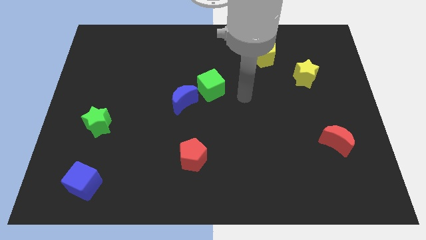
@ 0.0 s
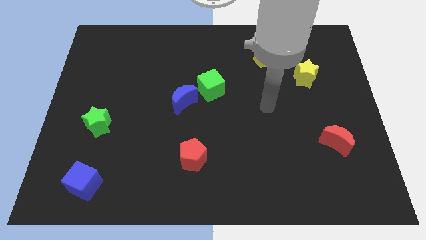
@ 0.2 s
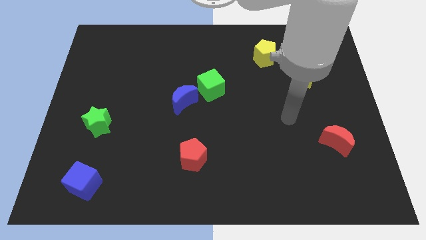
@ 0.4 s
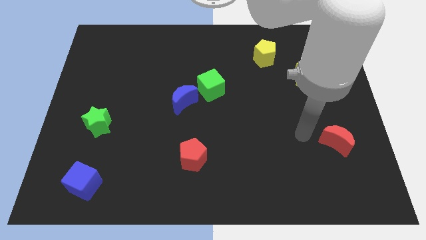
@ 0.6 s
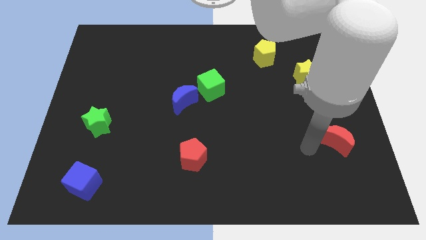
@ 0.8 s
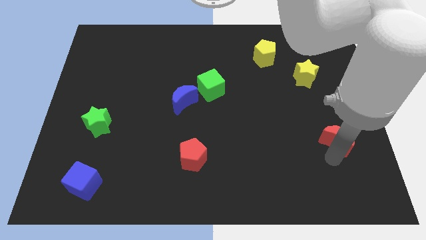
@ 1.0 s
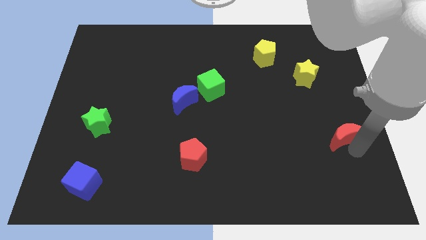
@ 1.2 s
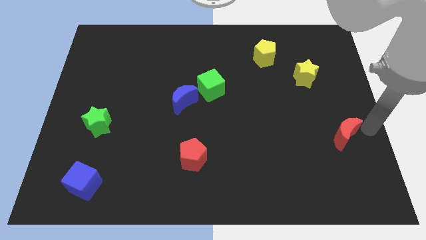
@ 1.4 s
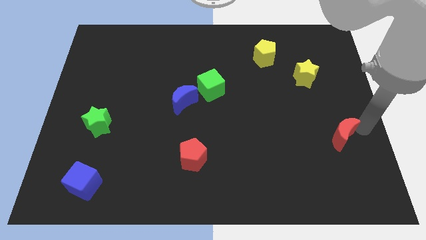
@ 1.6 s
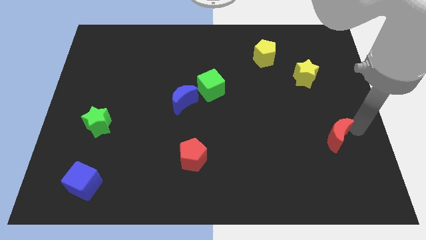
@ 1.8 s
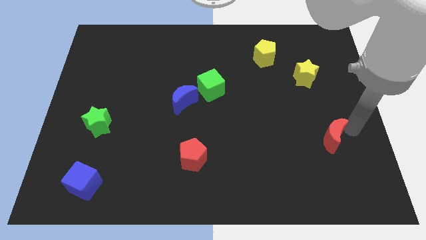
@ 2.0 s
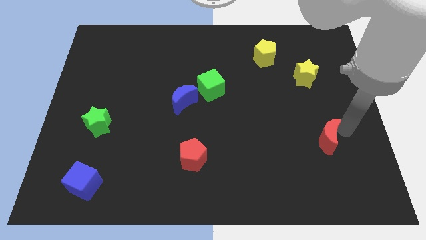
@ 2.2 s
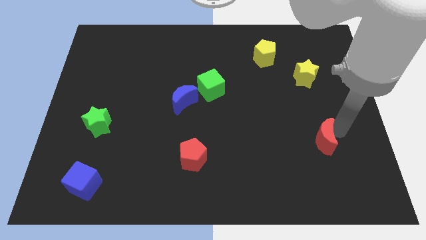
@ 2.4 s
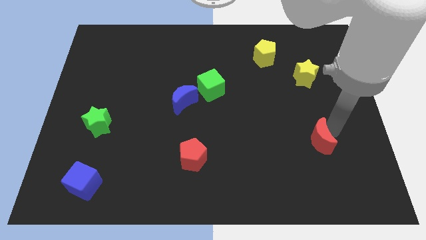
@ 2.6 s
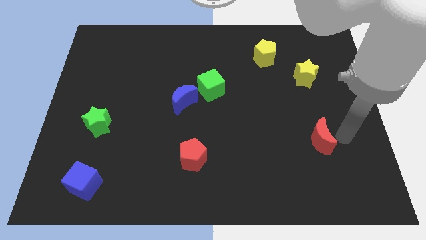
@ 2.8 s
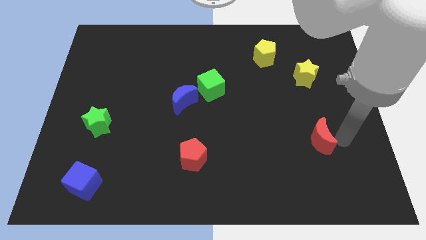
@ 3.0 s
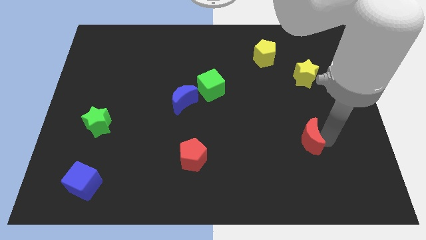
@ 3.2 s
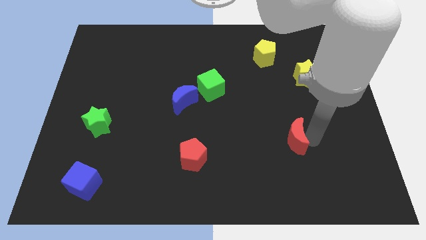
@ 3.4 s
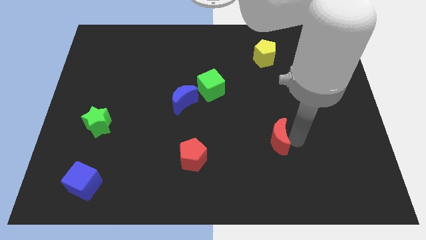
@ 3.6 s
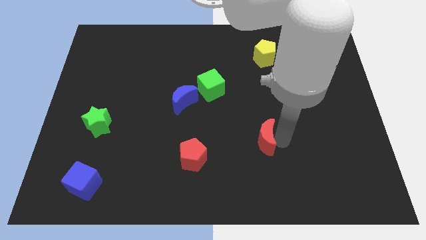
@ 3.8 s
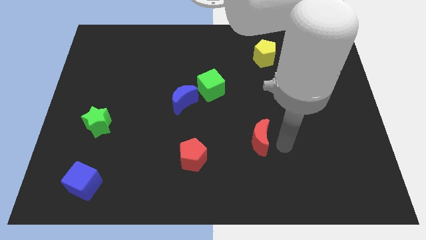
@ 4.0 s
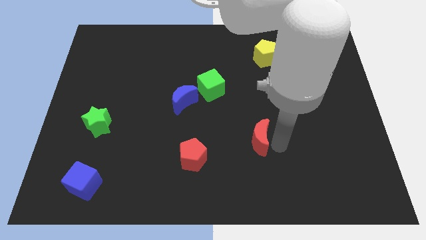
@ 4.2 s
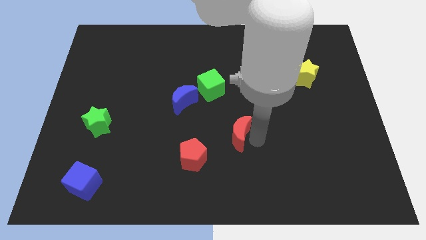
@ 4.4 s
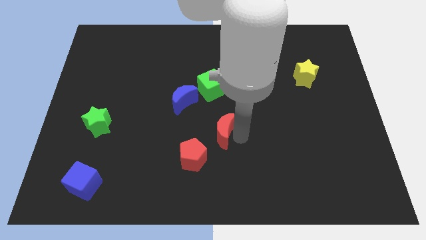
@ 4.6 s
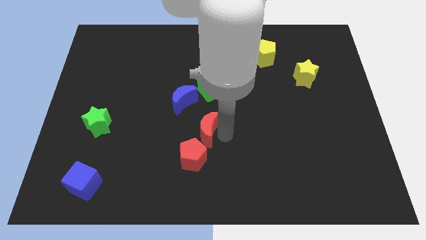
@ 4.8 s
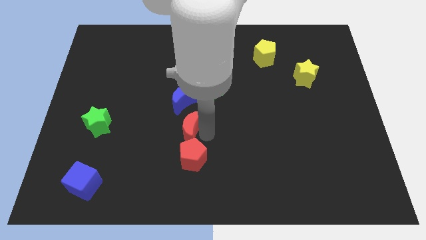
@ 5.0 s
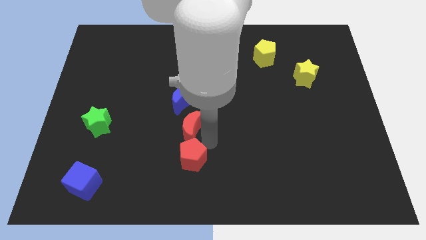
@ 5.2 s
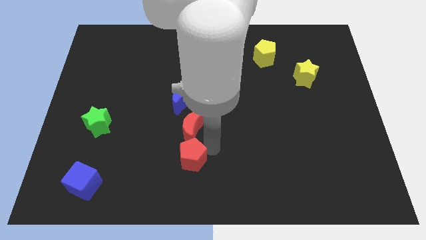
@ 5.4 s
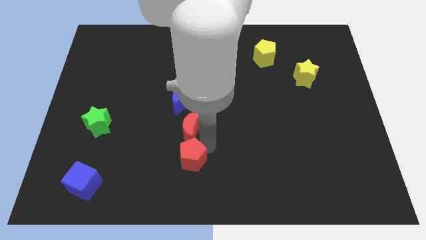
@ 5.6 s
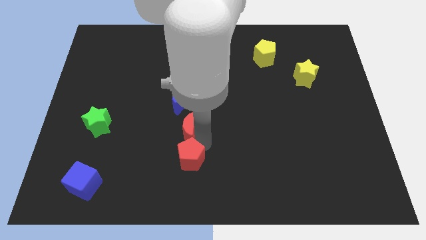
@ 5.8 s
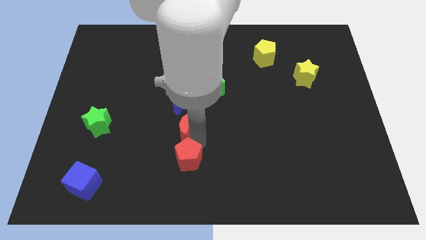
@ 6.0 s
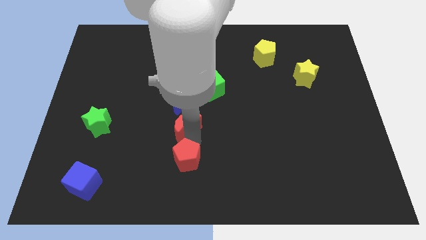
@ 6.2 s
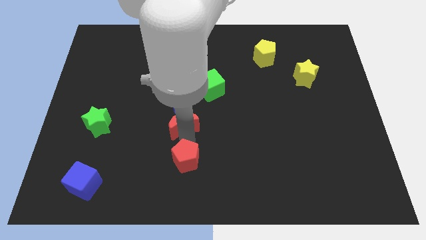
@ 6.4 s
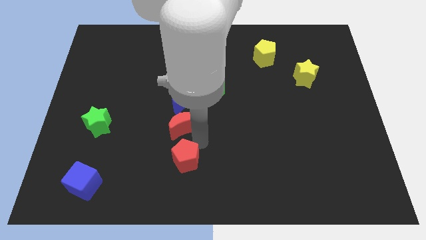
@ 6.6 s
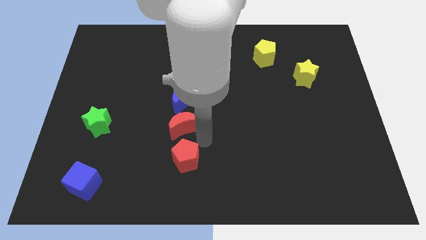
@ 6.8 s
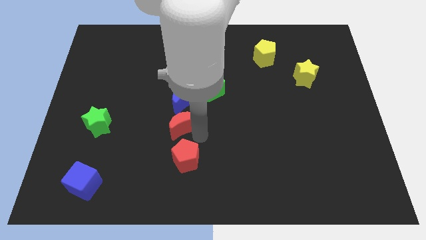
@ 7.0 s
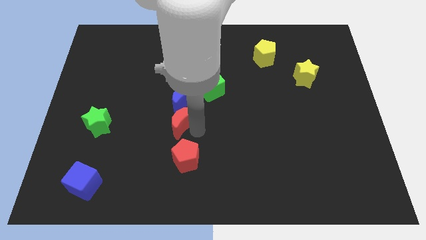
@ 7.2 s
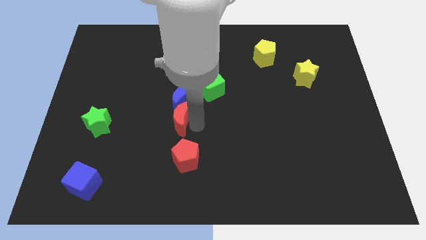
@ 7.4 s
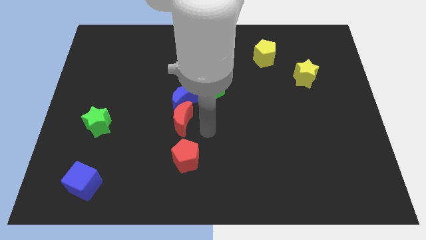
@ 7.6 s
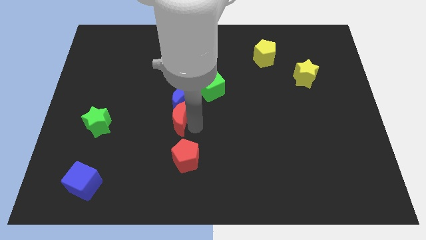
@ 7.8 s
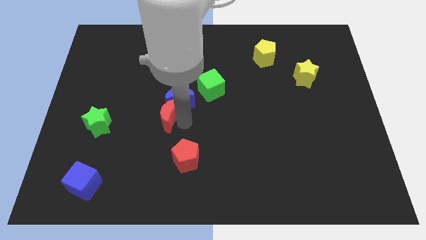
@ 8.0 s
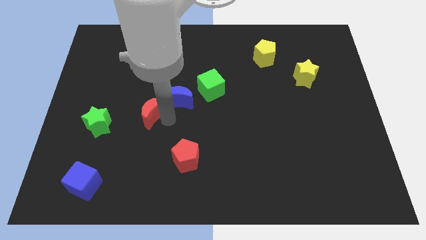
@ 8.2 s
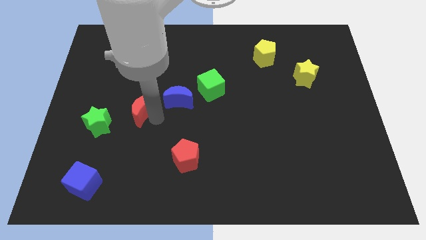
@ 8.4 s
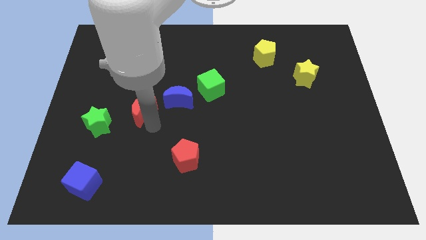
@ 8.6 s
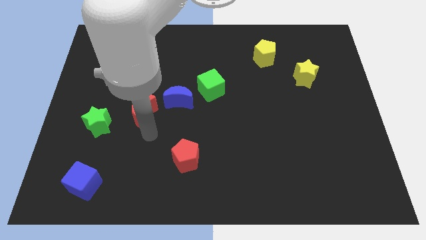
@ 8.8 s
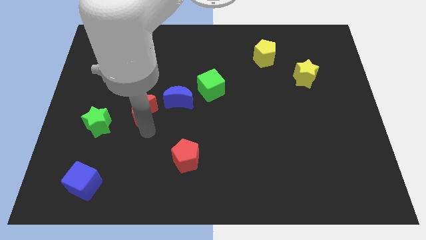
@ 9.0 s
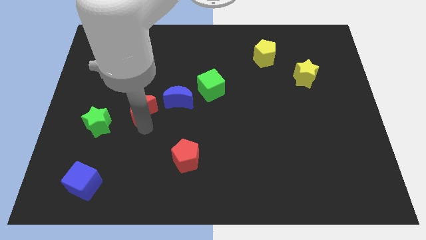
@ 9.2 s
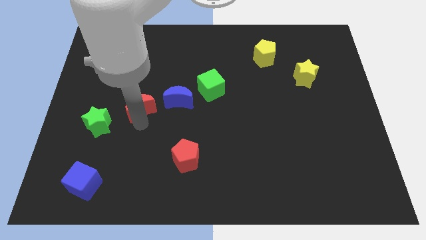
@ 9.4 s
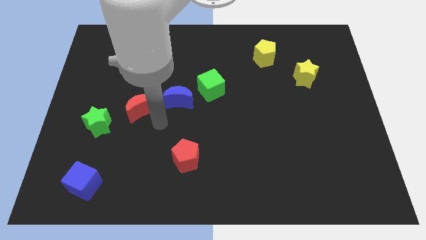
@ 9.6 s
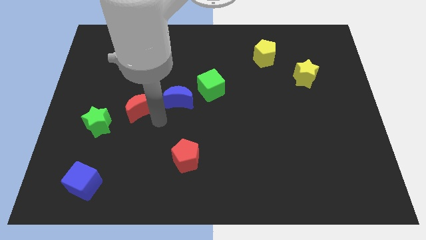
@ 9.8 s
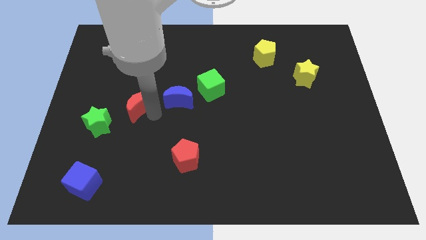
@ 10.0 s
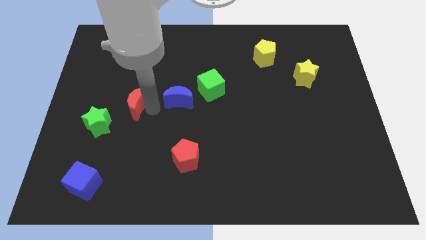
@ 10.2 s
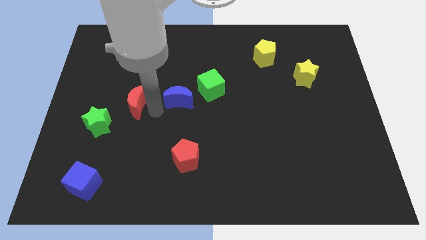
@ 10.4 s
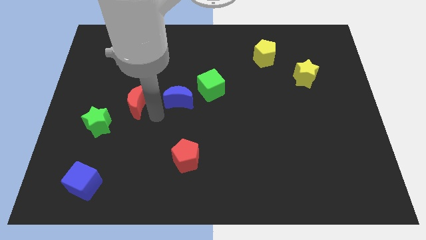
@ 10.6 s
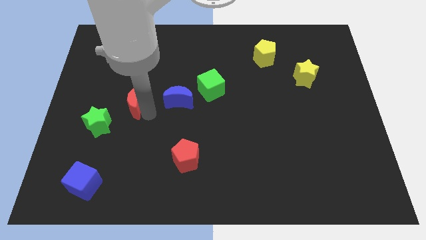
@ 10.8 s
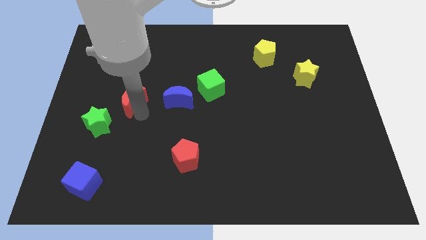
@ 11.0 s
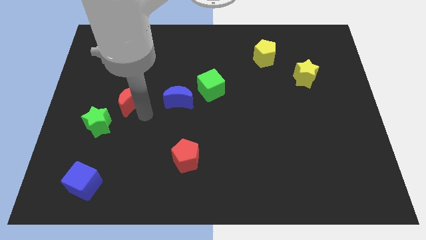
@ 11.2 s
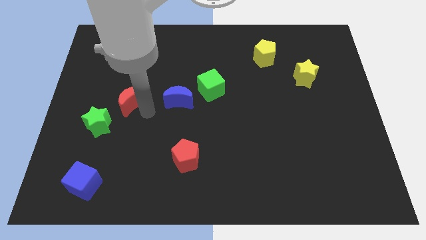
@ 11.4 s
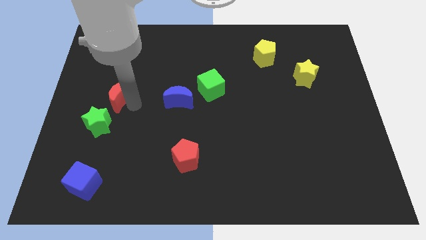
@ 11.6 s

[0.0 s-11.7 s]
put the red moon to the top side of the green star

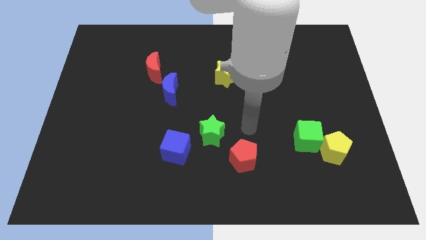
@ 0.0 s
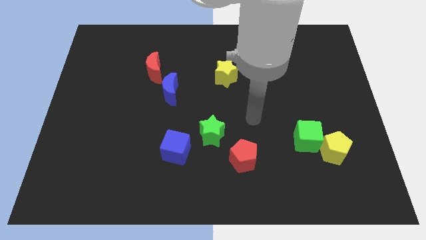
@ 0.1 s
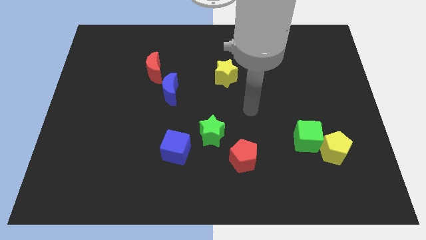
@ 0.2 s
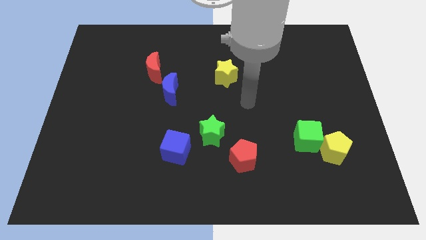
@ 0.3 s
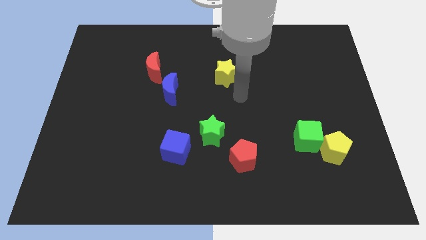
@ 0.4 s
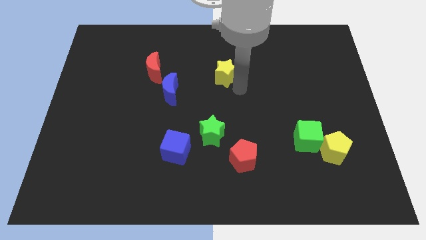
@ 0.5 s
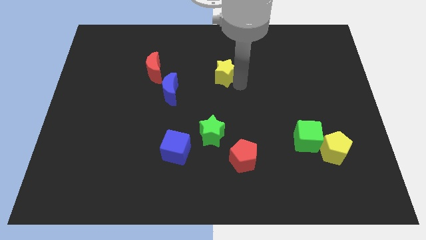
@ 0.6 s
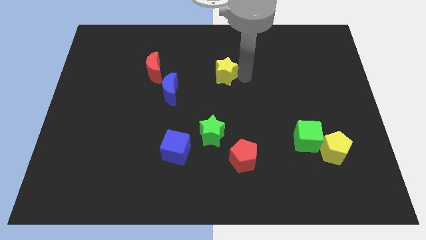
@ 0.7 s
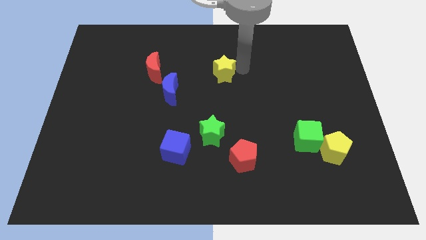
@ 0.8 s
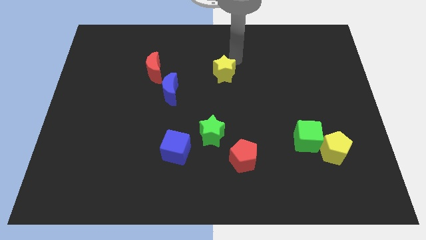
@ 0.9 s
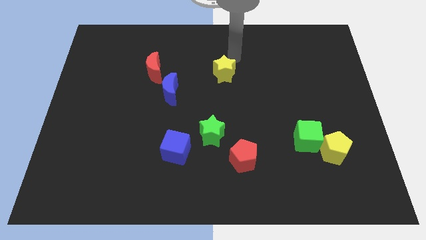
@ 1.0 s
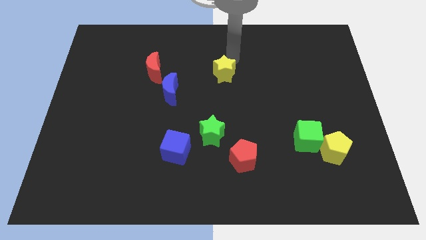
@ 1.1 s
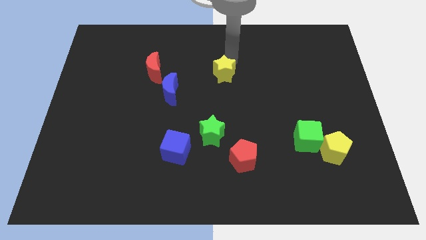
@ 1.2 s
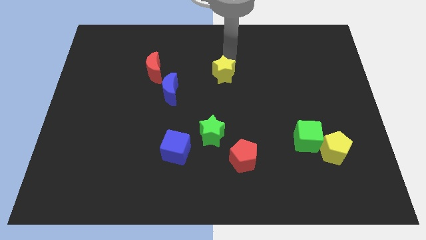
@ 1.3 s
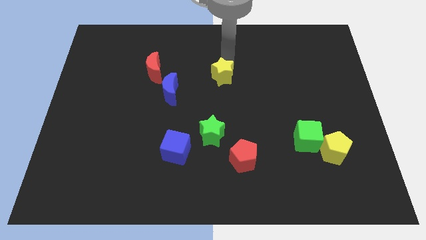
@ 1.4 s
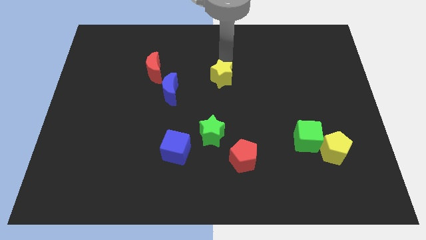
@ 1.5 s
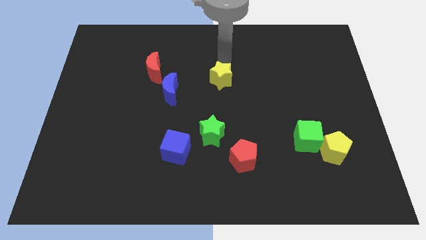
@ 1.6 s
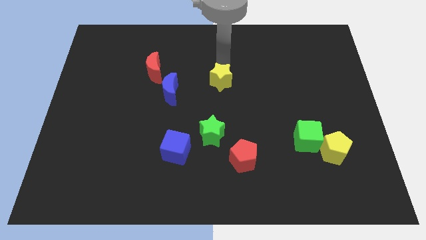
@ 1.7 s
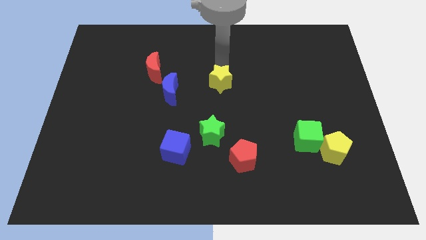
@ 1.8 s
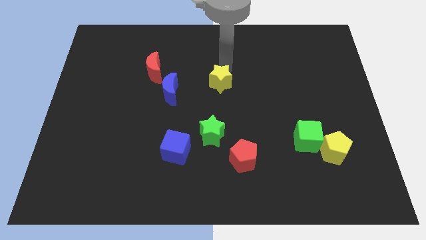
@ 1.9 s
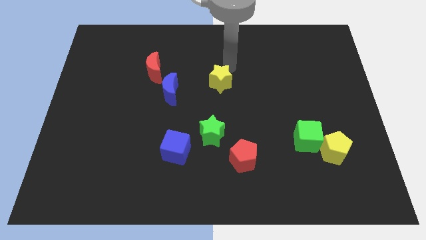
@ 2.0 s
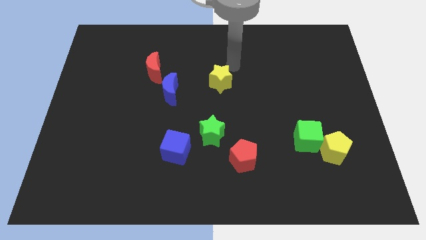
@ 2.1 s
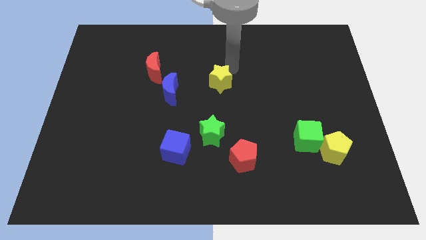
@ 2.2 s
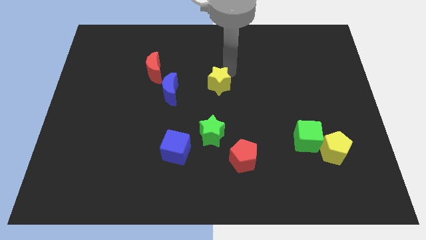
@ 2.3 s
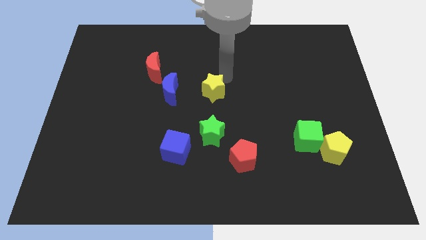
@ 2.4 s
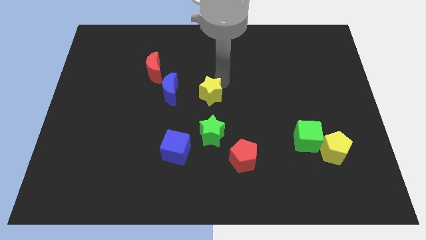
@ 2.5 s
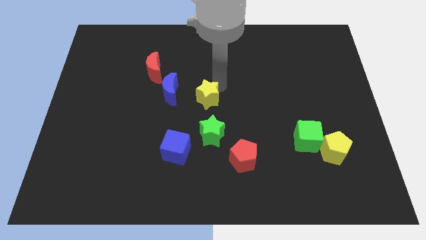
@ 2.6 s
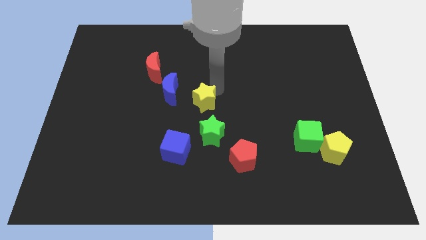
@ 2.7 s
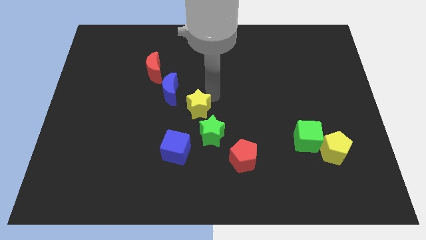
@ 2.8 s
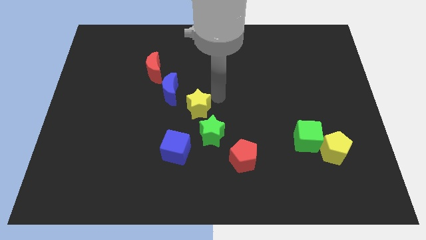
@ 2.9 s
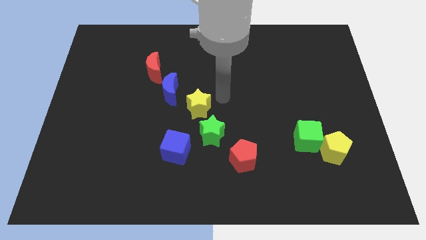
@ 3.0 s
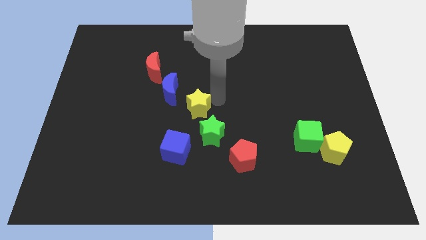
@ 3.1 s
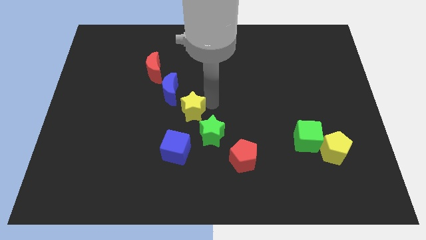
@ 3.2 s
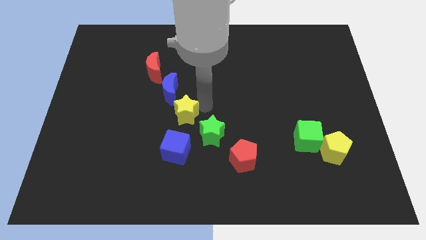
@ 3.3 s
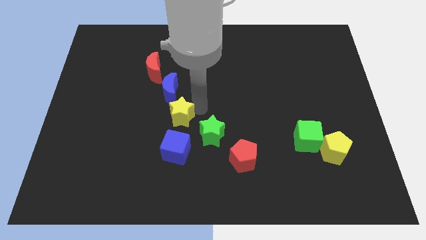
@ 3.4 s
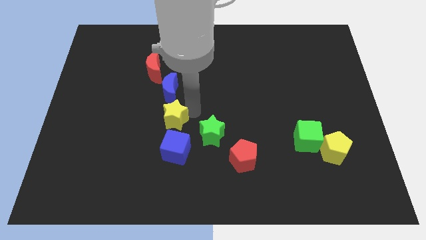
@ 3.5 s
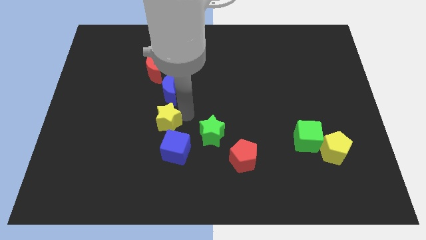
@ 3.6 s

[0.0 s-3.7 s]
put the yellow star diagonally up and to the left of the blue cube
